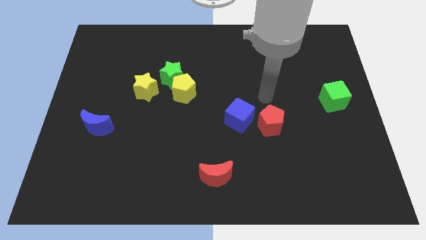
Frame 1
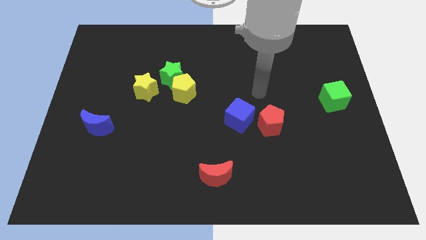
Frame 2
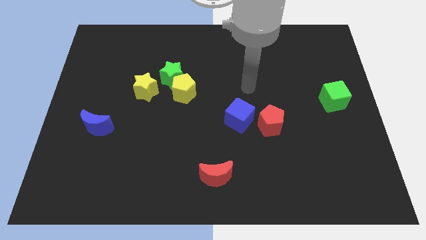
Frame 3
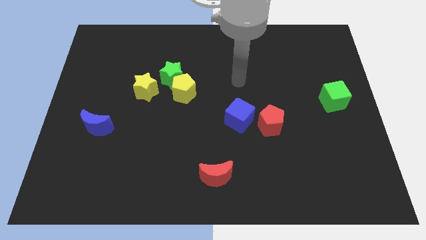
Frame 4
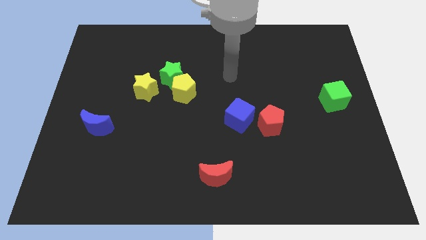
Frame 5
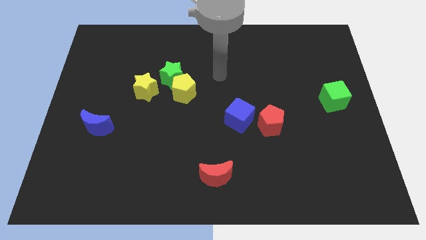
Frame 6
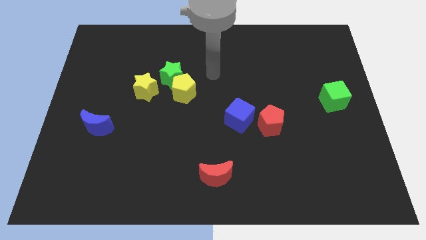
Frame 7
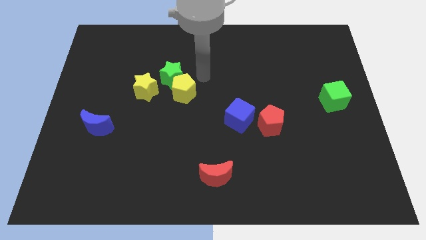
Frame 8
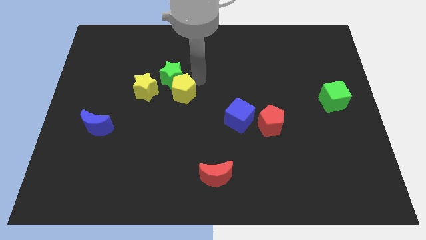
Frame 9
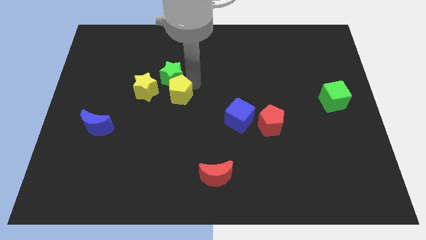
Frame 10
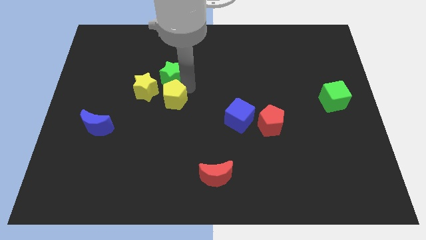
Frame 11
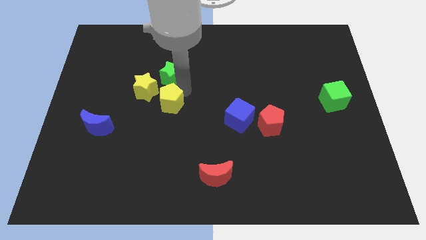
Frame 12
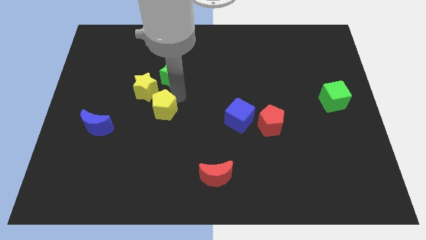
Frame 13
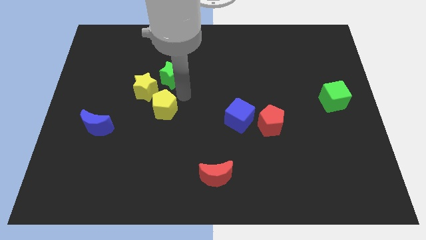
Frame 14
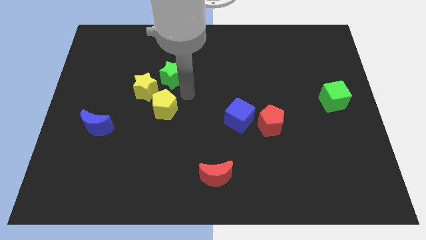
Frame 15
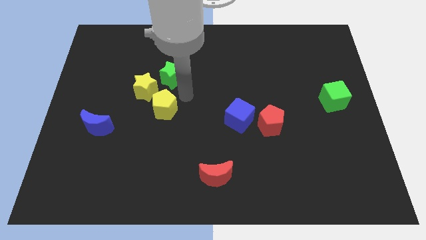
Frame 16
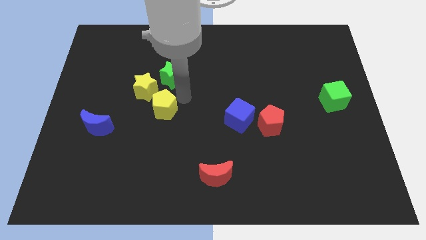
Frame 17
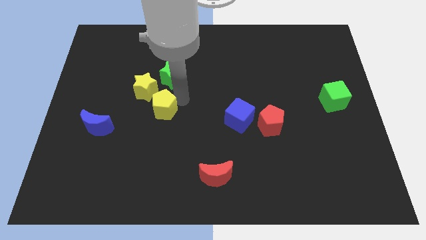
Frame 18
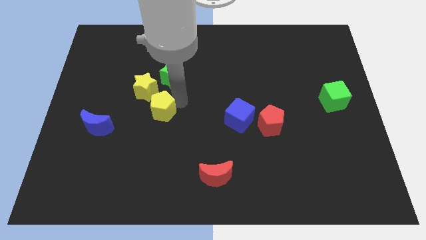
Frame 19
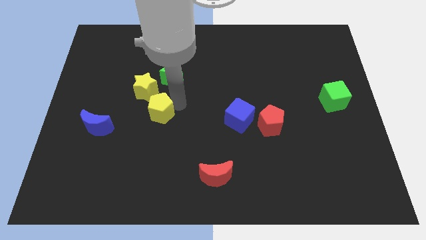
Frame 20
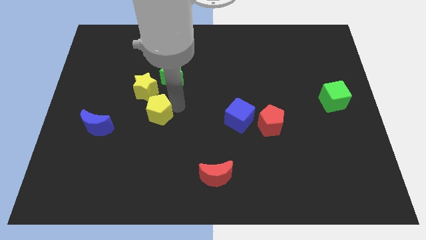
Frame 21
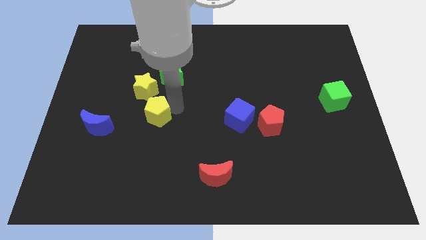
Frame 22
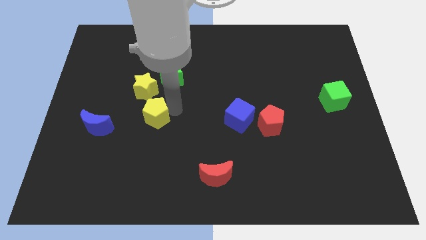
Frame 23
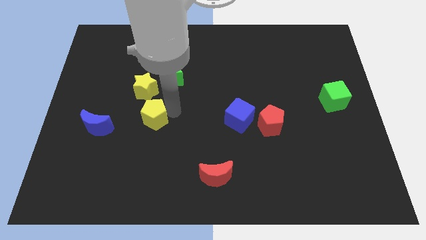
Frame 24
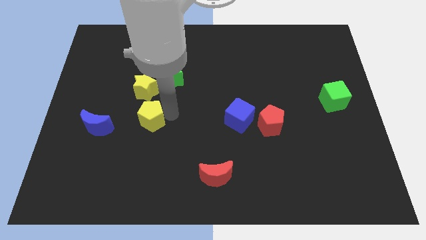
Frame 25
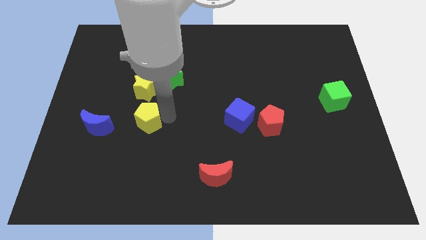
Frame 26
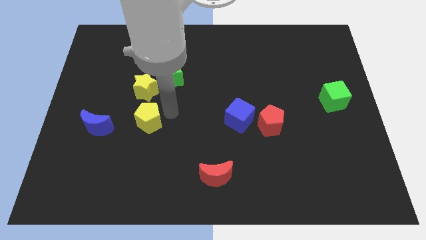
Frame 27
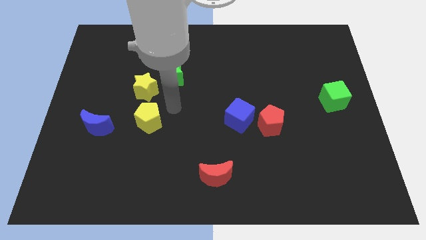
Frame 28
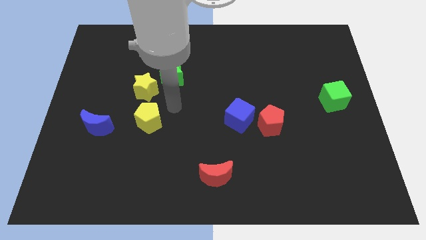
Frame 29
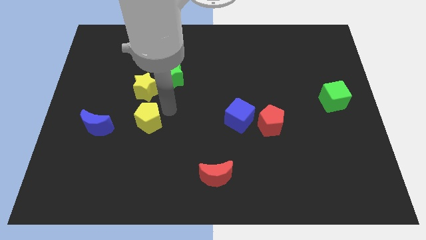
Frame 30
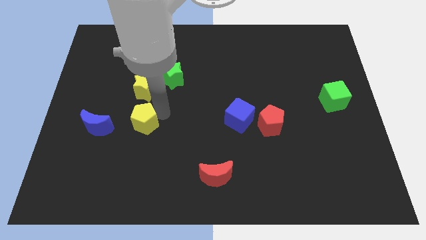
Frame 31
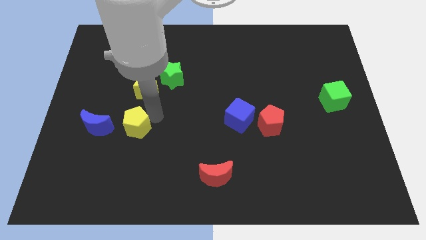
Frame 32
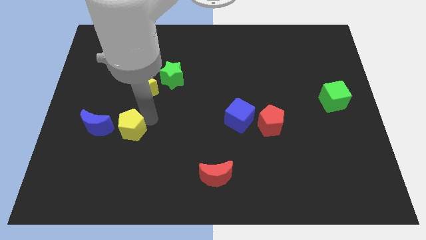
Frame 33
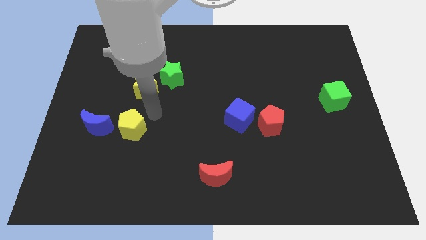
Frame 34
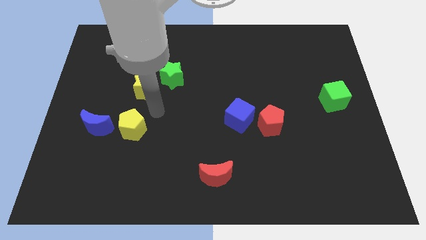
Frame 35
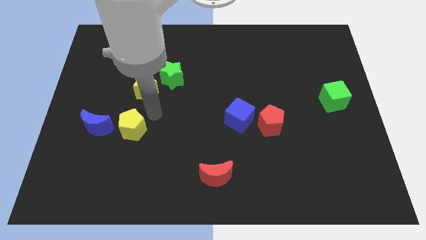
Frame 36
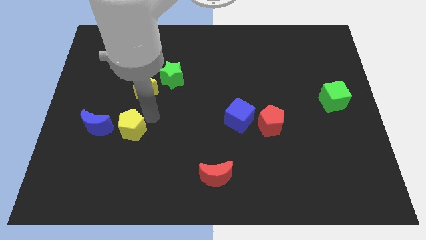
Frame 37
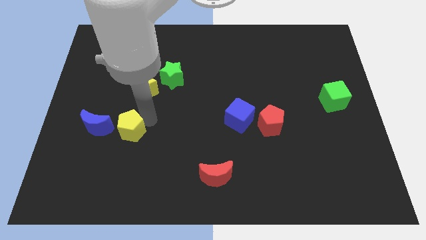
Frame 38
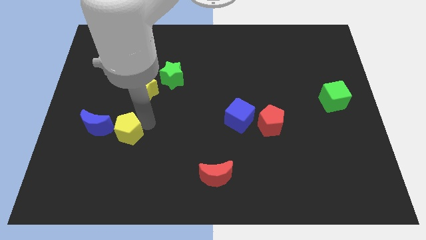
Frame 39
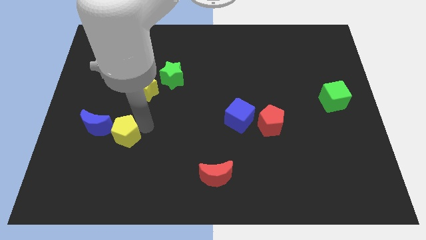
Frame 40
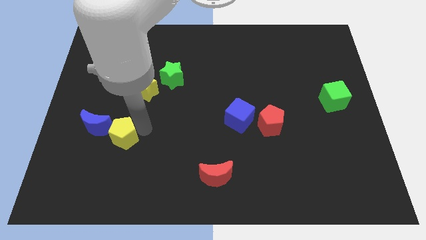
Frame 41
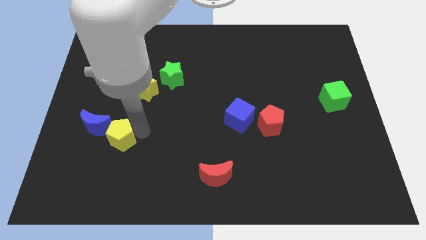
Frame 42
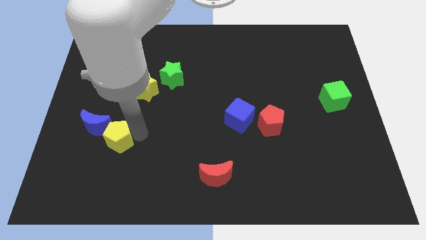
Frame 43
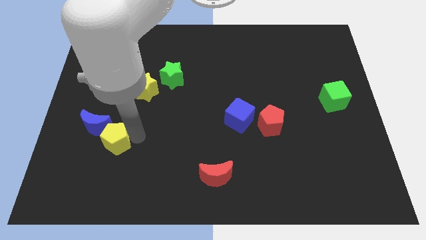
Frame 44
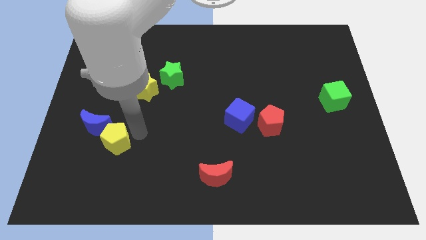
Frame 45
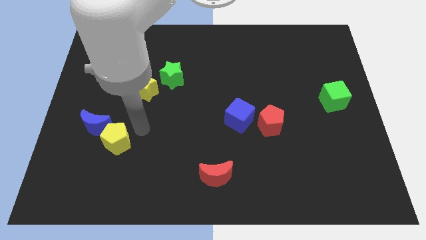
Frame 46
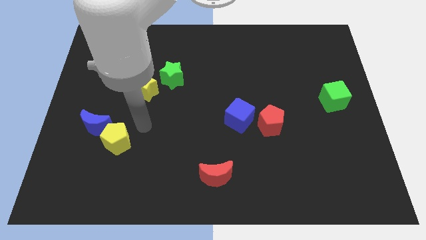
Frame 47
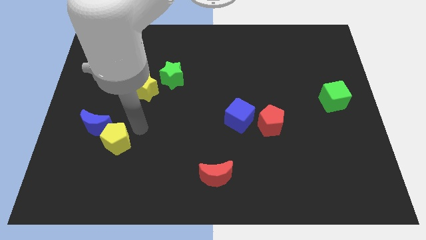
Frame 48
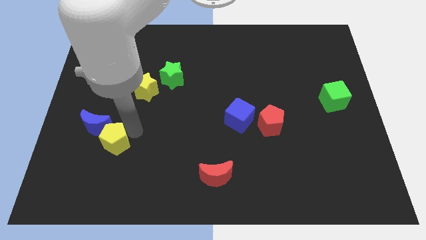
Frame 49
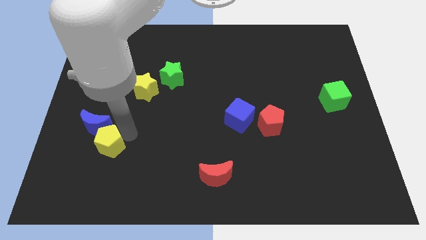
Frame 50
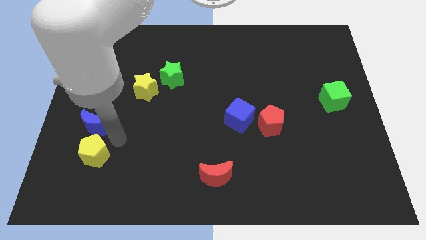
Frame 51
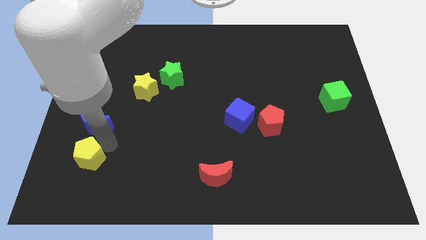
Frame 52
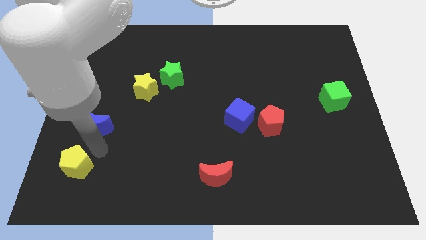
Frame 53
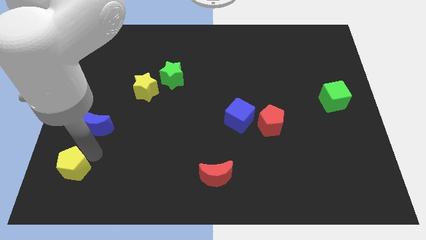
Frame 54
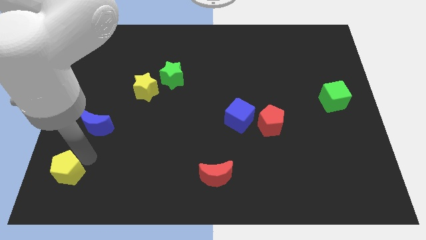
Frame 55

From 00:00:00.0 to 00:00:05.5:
push the yellow pentagon to the bottom left
